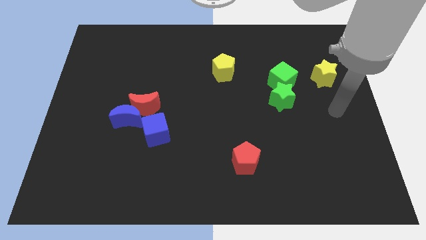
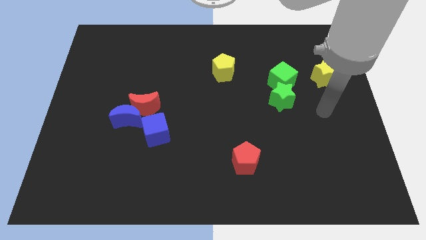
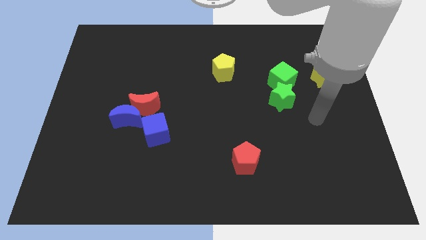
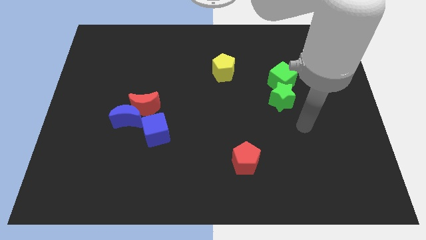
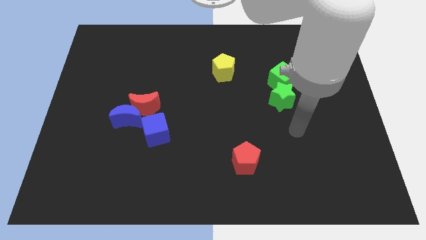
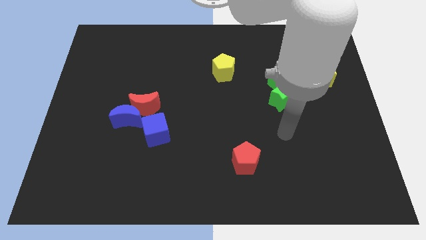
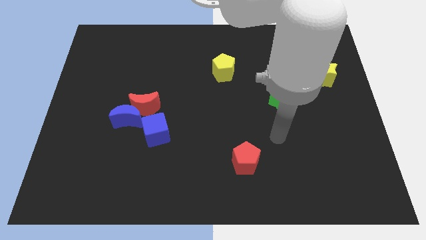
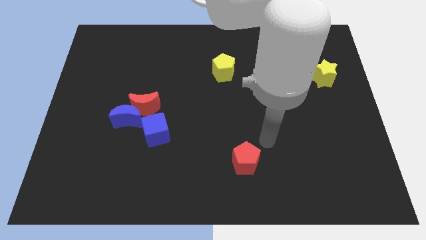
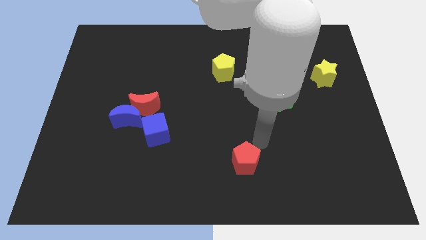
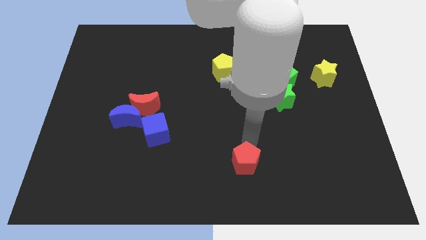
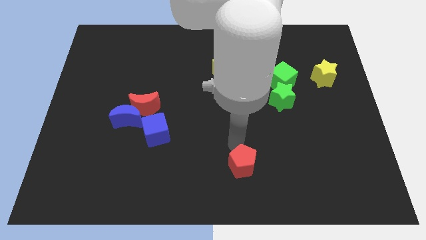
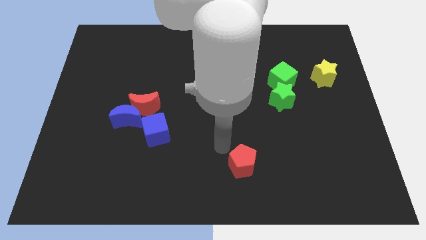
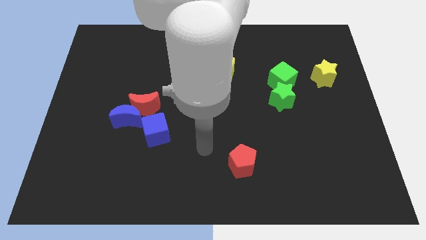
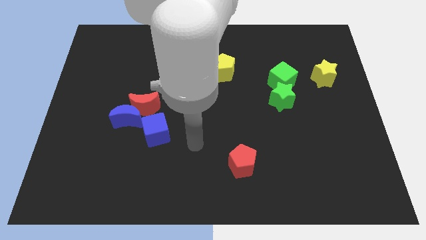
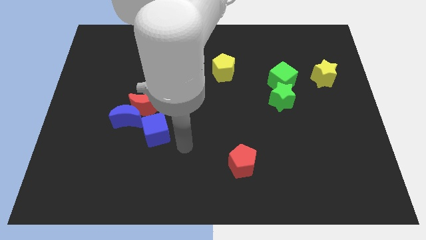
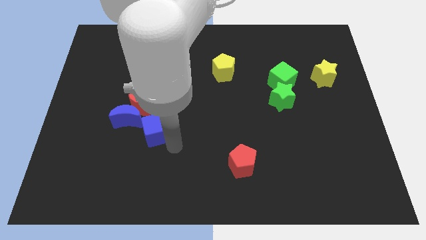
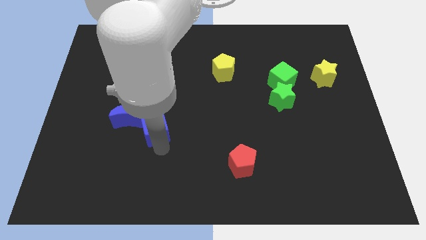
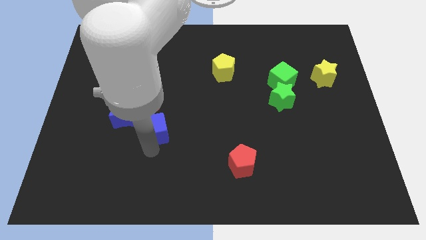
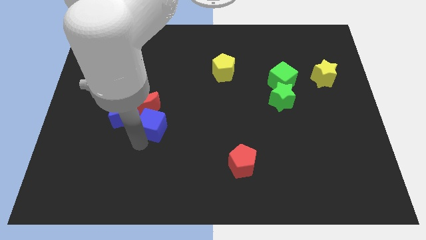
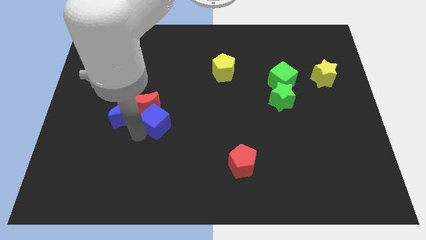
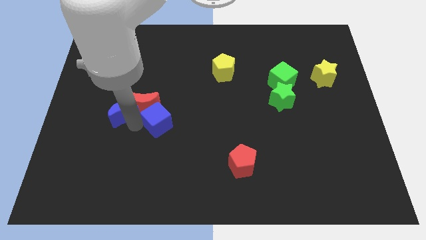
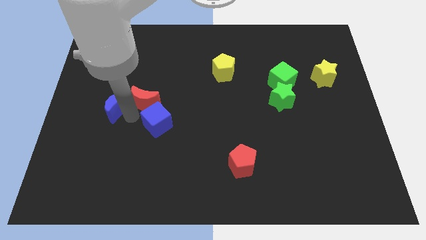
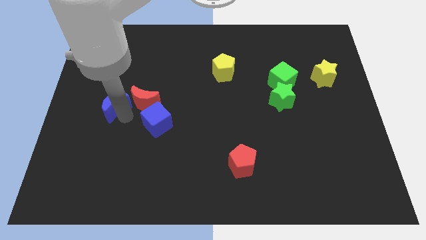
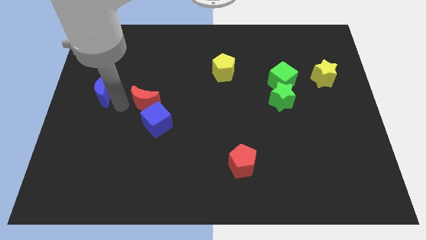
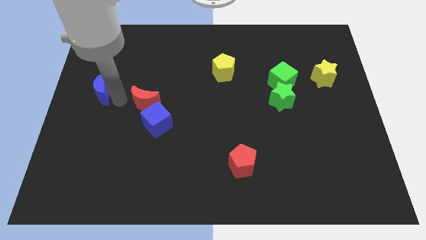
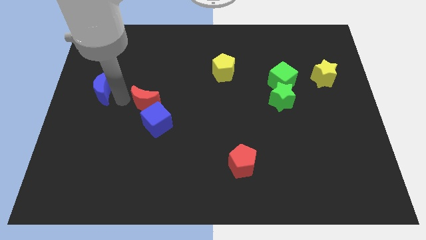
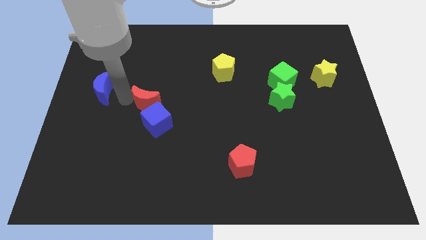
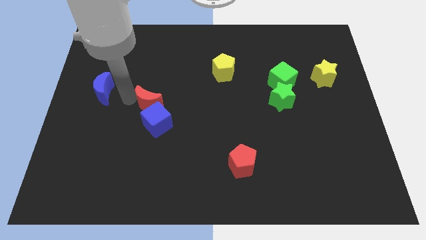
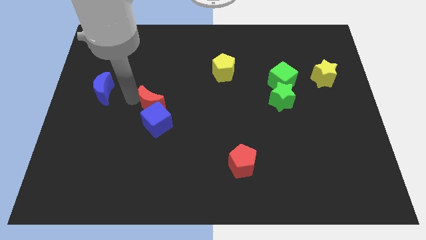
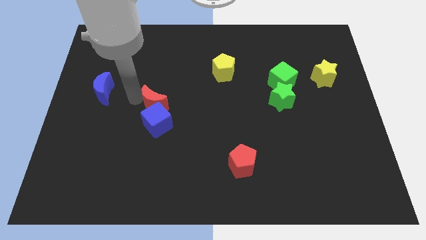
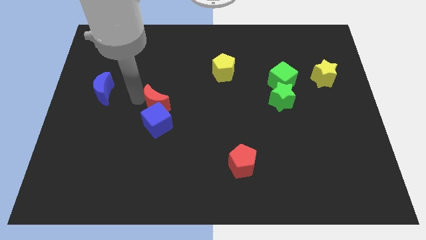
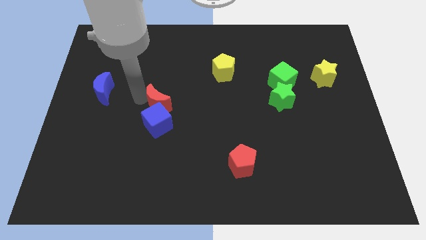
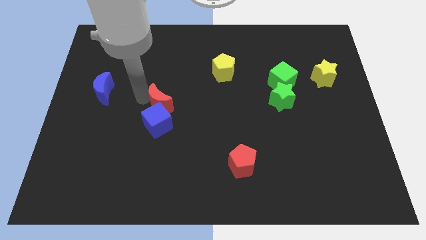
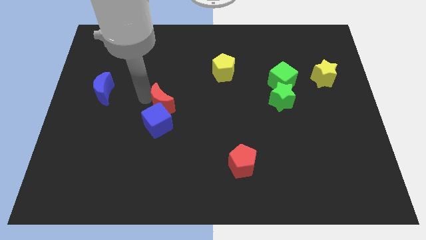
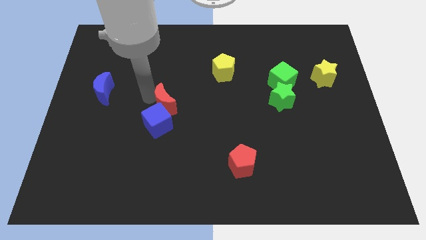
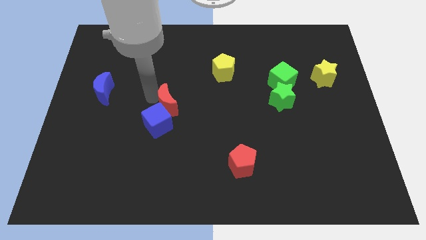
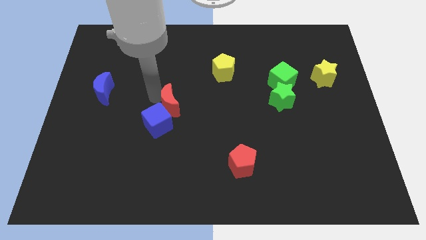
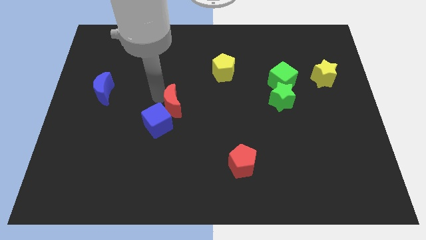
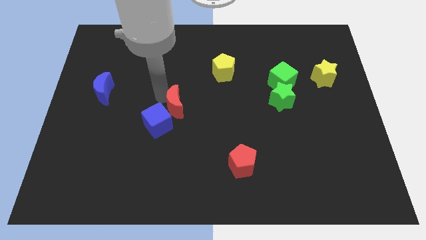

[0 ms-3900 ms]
slightly slide the red moon right

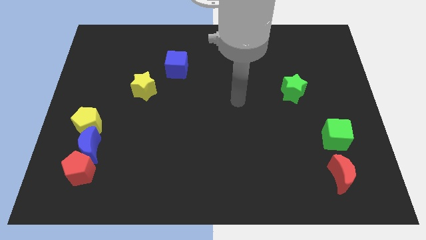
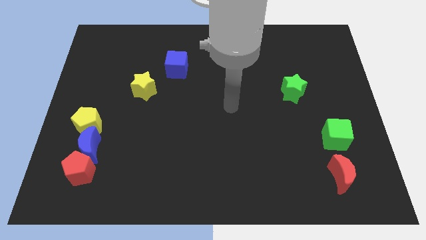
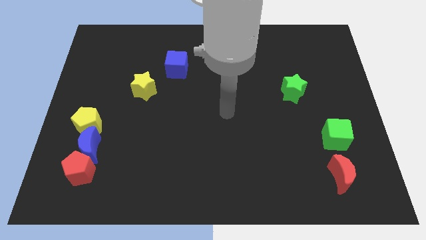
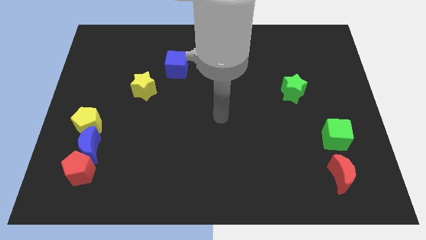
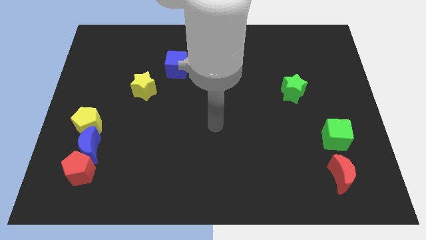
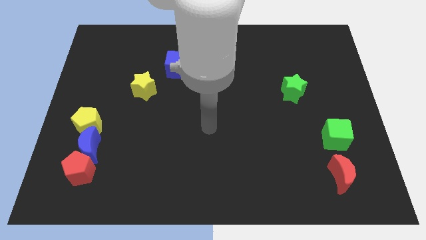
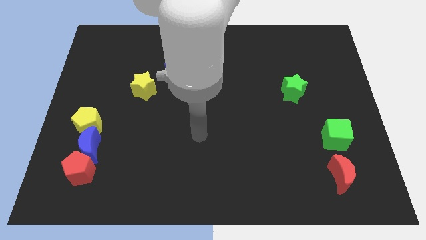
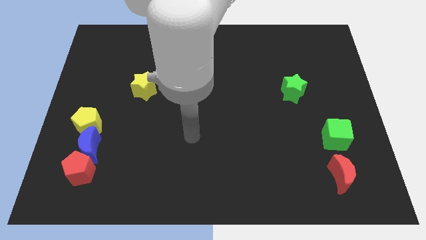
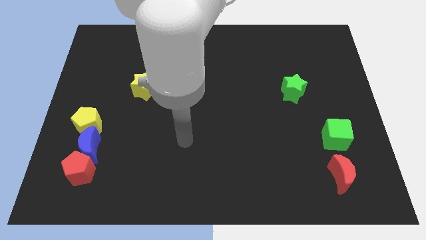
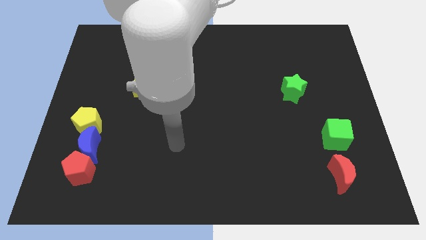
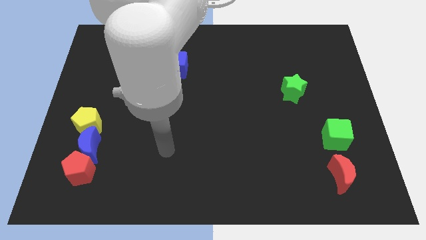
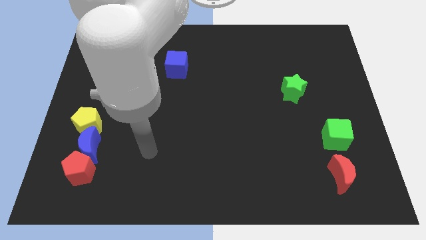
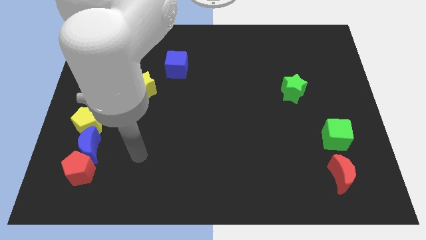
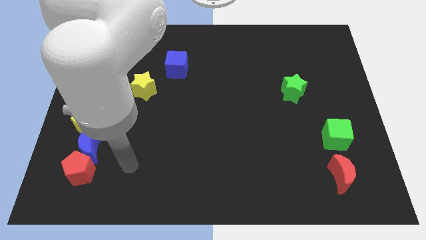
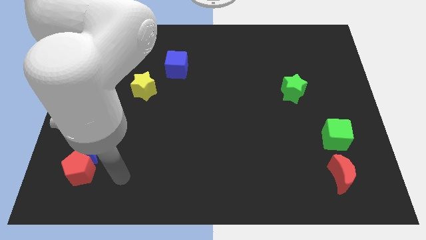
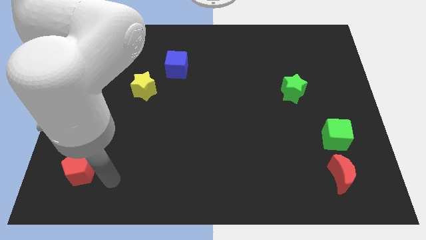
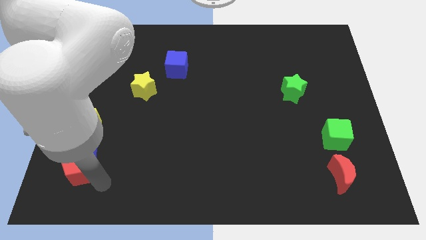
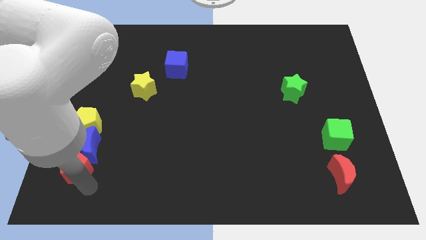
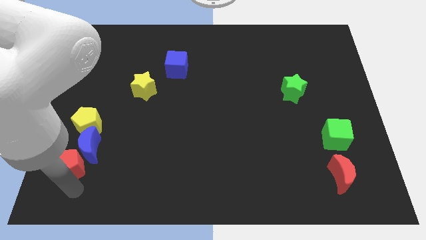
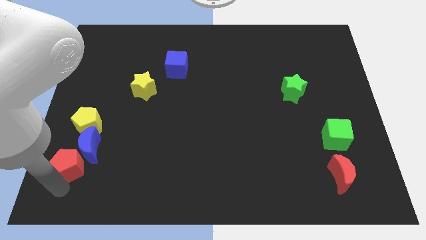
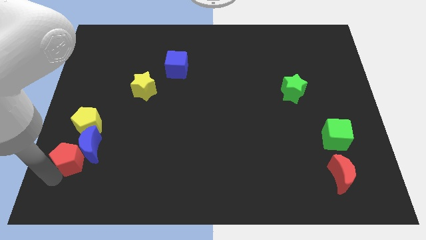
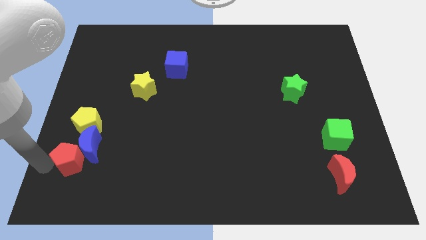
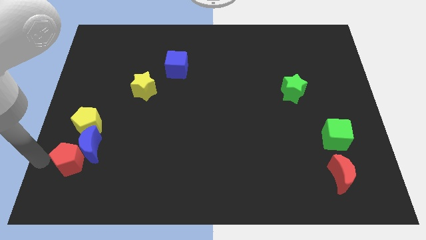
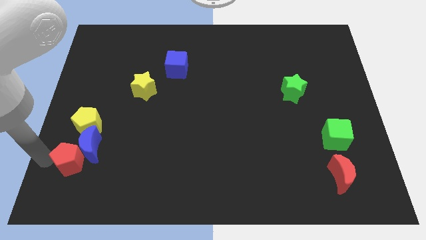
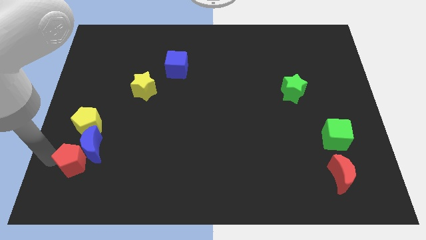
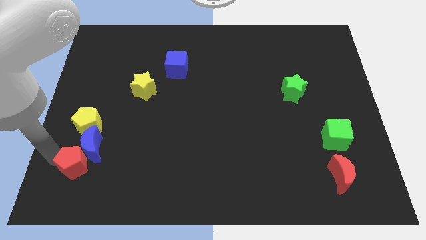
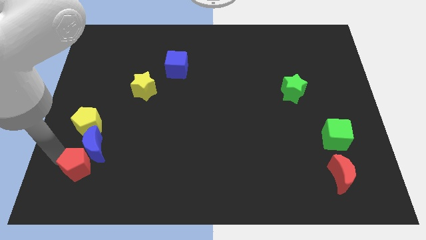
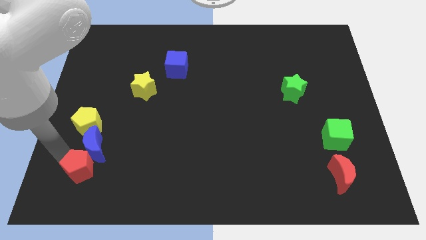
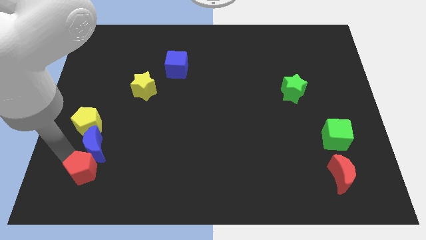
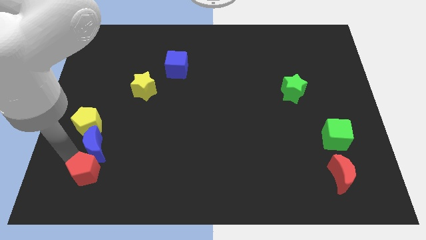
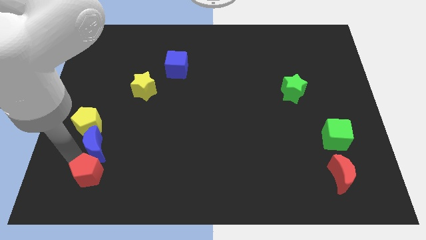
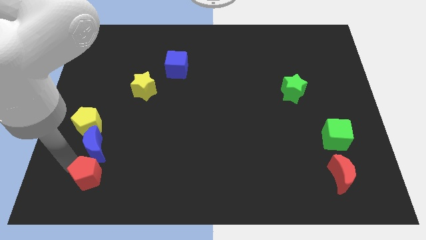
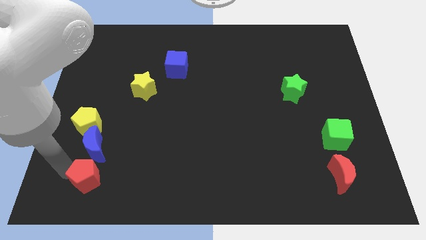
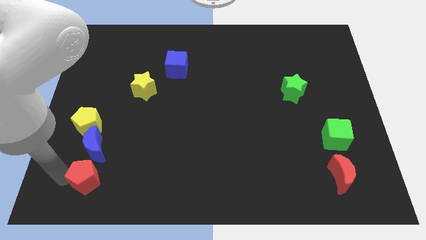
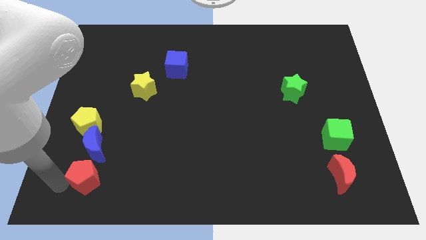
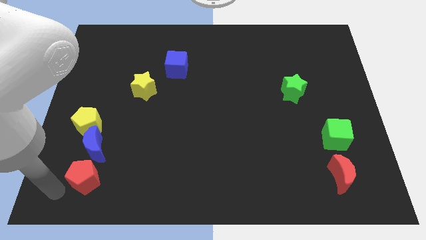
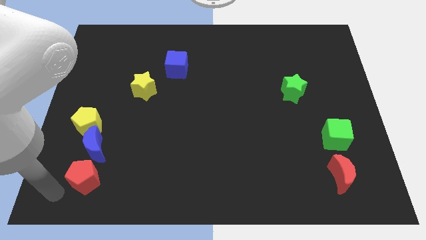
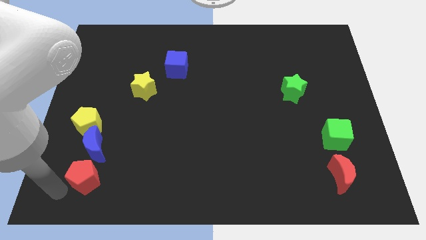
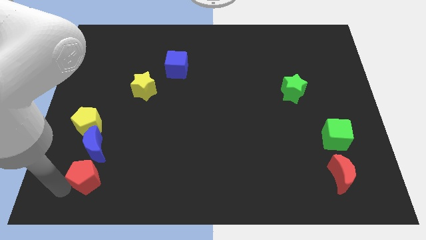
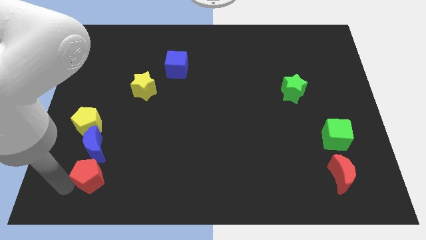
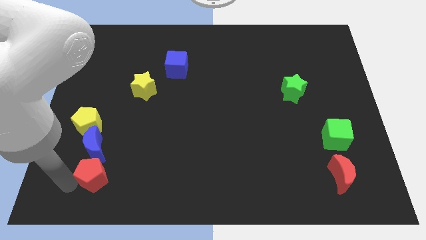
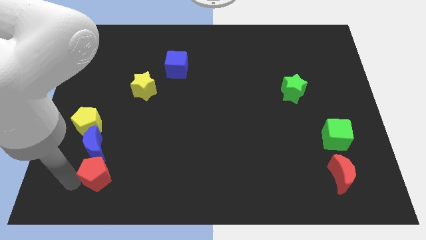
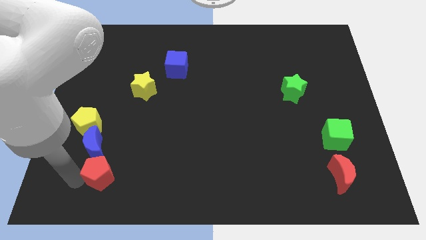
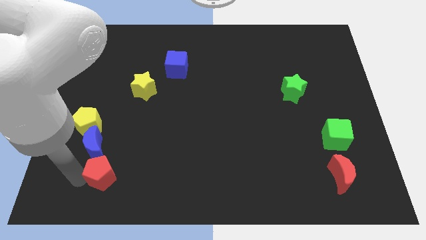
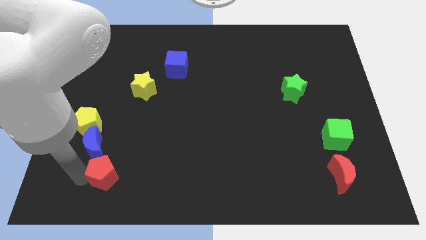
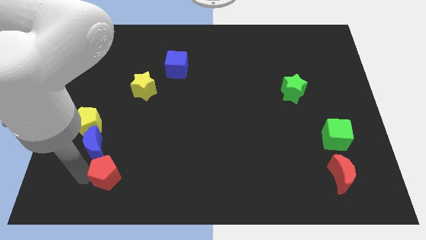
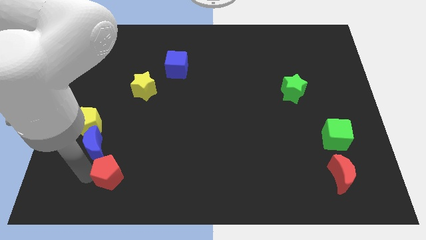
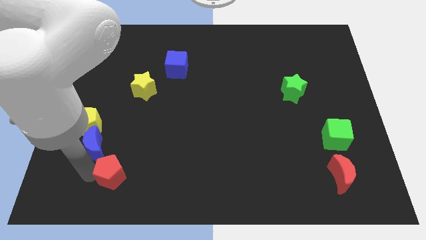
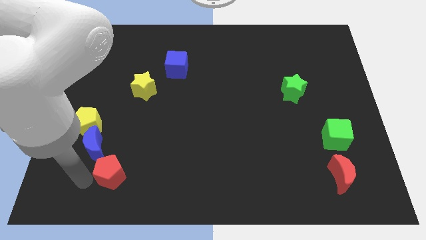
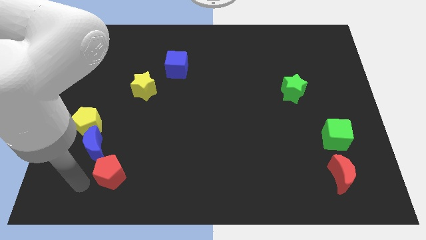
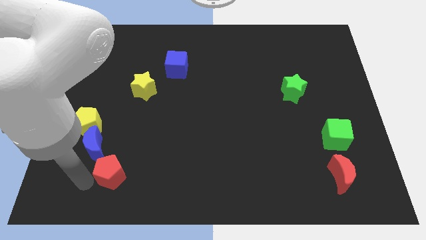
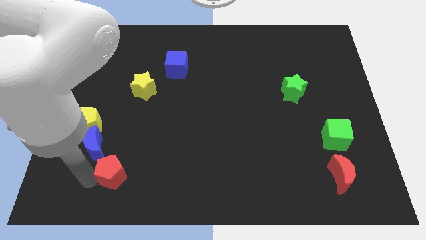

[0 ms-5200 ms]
move the red pentagon a bit to the right
